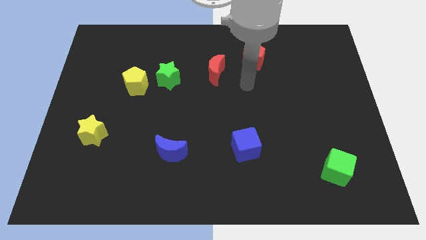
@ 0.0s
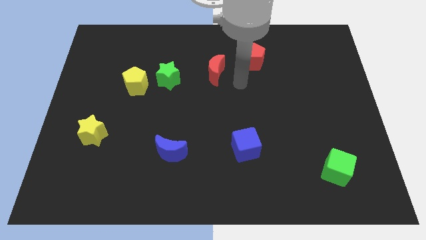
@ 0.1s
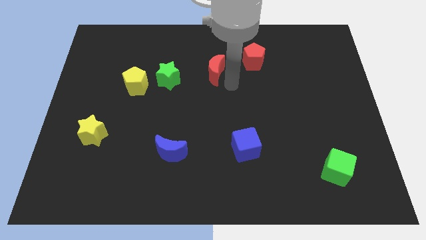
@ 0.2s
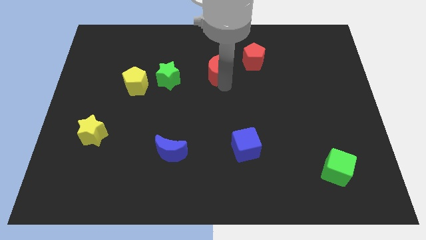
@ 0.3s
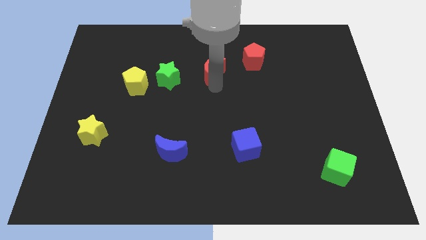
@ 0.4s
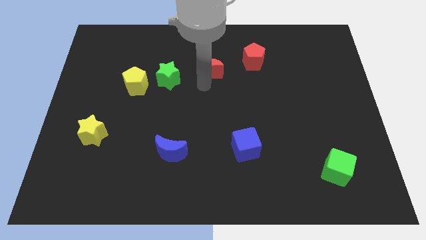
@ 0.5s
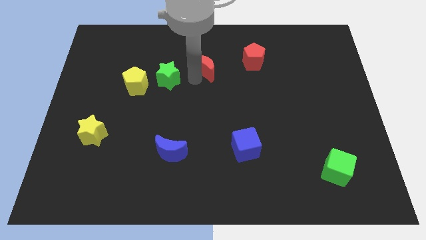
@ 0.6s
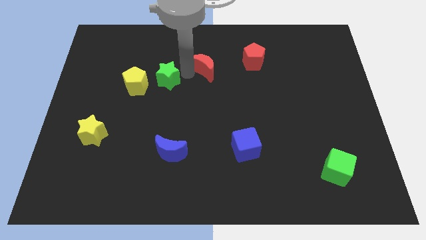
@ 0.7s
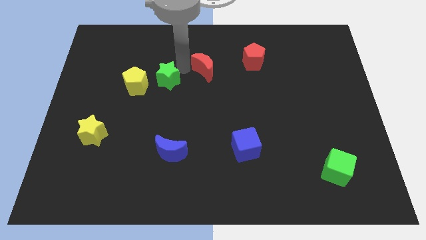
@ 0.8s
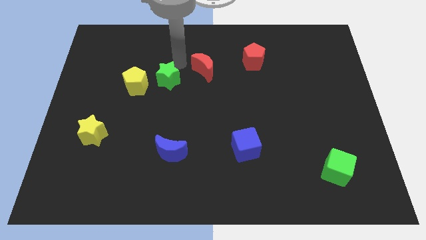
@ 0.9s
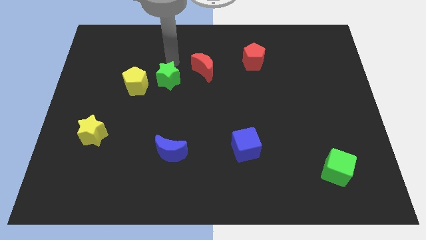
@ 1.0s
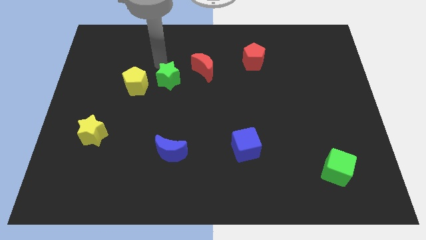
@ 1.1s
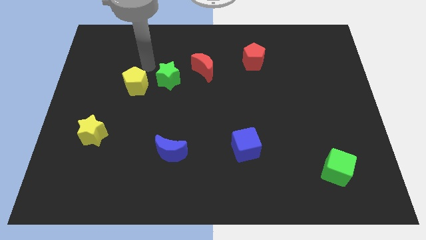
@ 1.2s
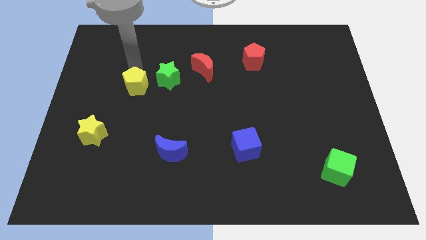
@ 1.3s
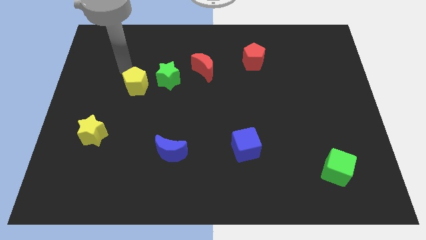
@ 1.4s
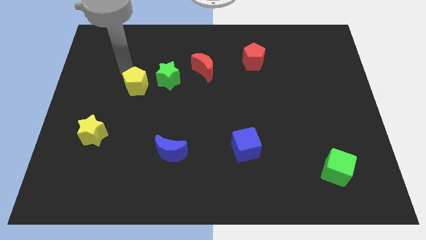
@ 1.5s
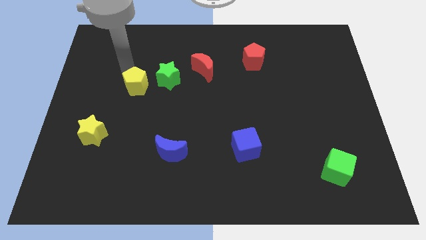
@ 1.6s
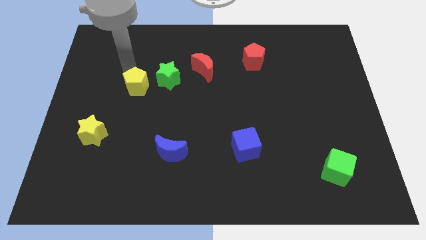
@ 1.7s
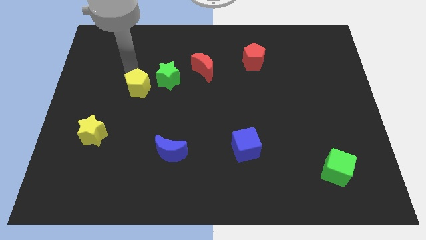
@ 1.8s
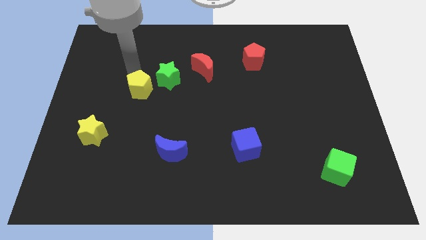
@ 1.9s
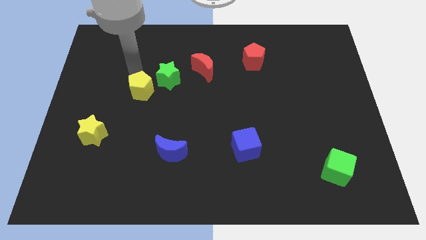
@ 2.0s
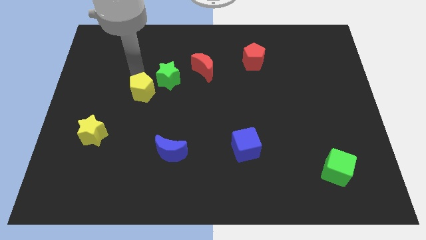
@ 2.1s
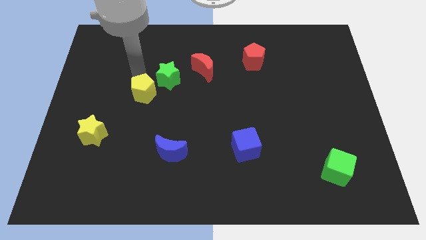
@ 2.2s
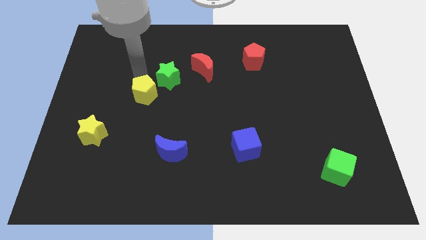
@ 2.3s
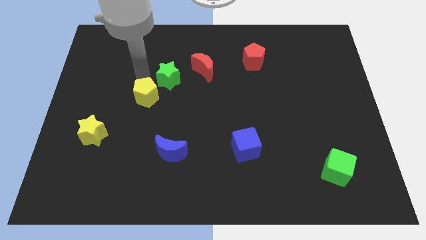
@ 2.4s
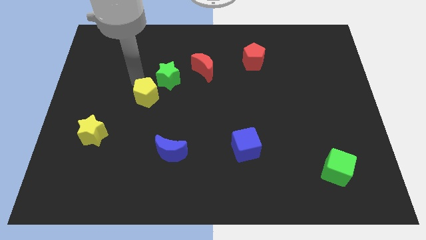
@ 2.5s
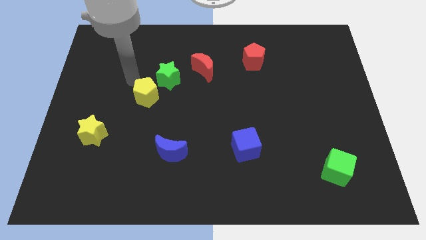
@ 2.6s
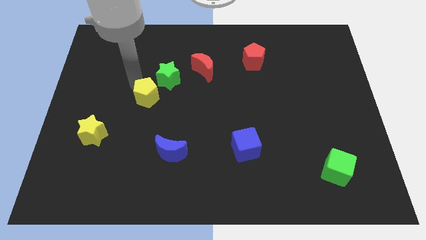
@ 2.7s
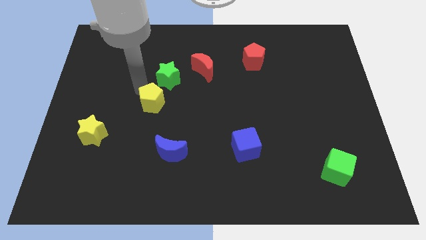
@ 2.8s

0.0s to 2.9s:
move the yellow pentagon diagonally down and to the right a bit

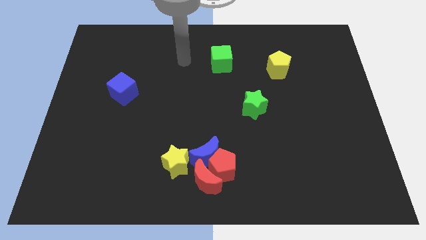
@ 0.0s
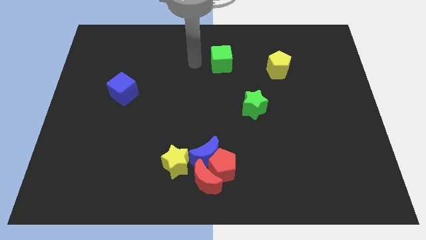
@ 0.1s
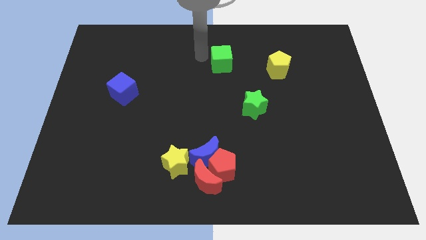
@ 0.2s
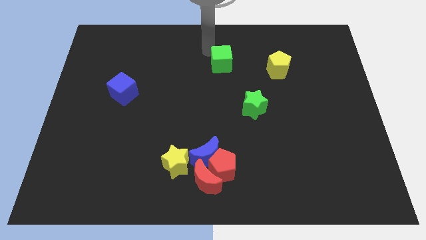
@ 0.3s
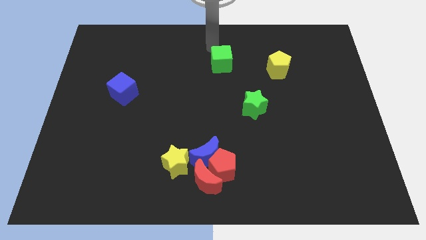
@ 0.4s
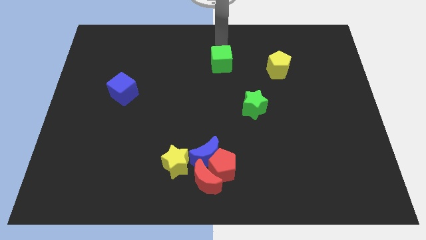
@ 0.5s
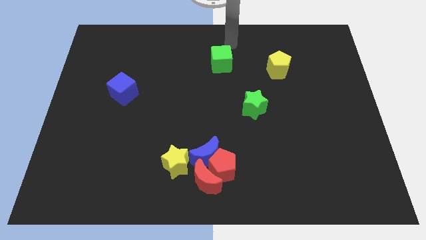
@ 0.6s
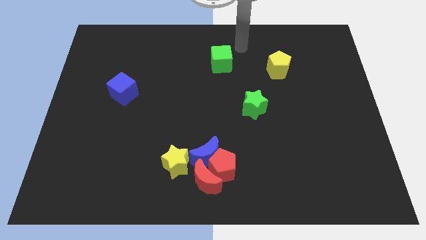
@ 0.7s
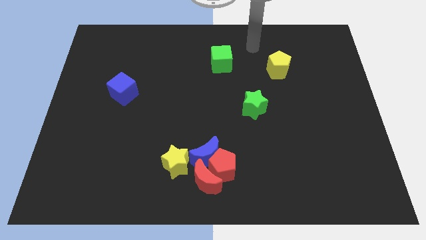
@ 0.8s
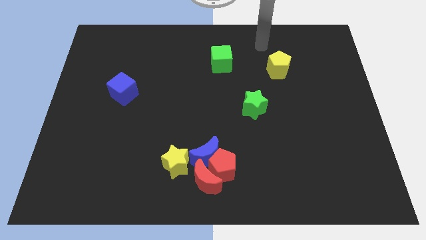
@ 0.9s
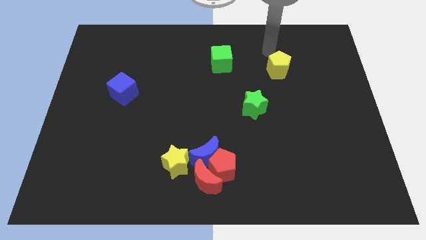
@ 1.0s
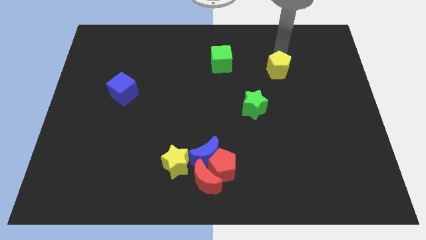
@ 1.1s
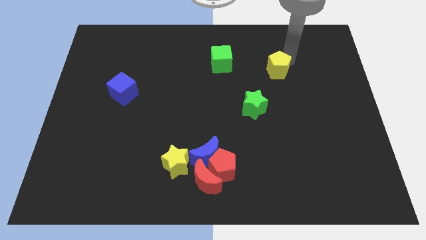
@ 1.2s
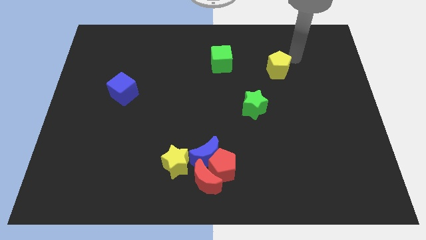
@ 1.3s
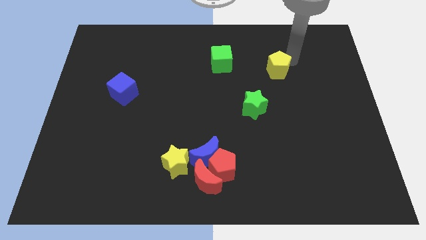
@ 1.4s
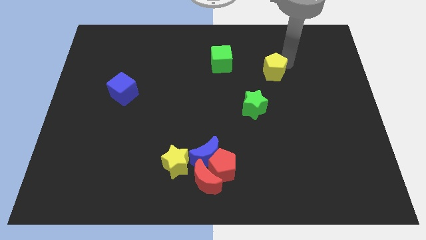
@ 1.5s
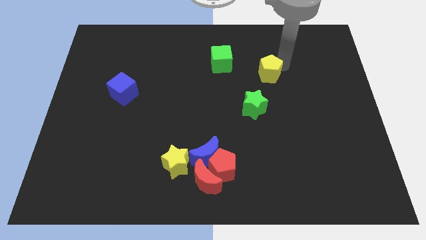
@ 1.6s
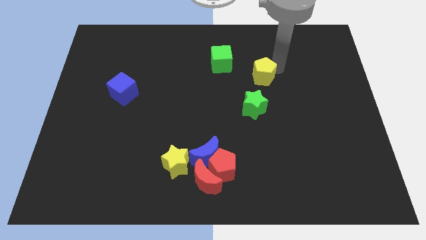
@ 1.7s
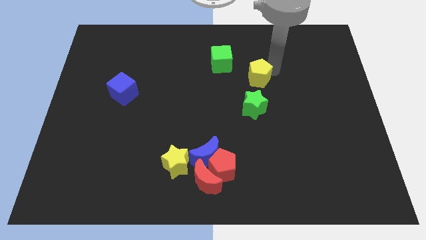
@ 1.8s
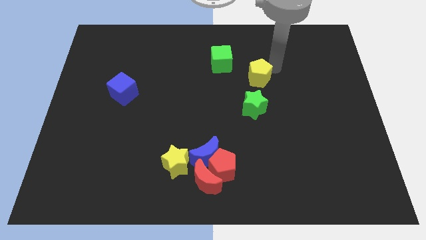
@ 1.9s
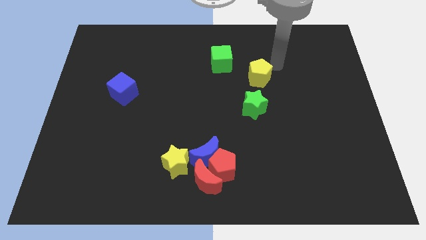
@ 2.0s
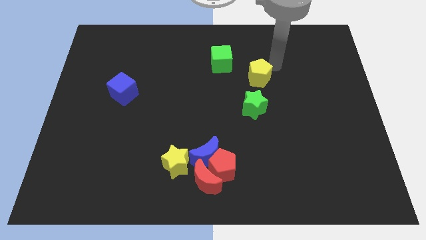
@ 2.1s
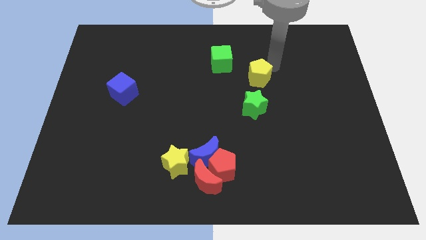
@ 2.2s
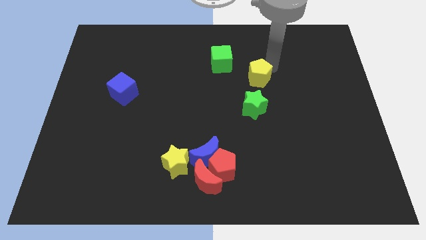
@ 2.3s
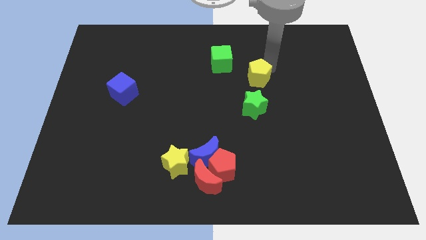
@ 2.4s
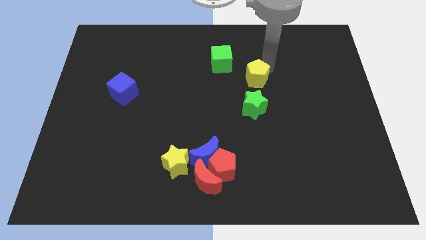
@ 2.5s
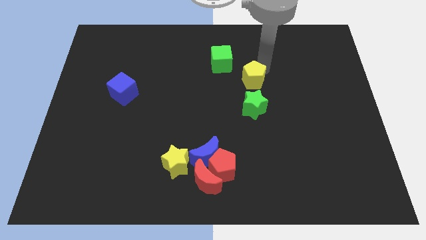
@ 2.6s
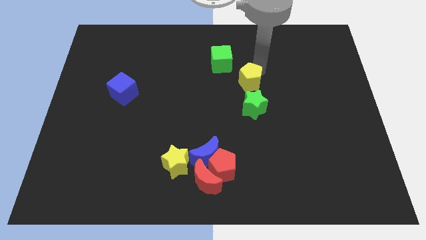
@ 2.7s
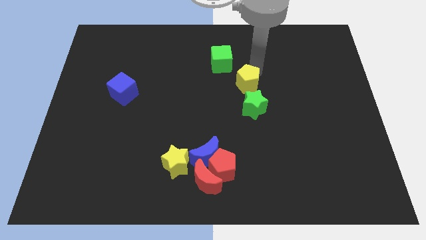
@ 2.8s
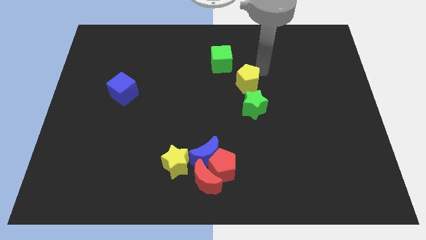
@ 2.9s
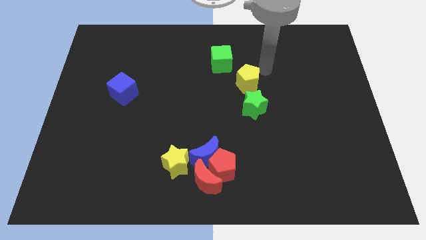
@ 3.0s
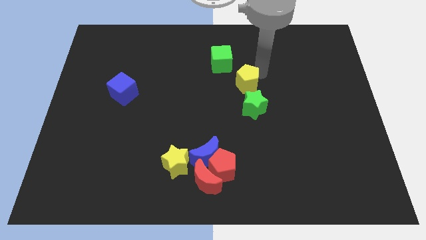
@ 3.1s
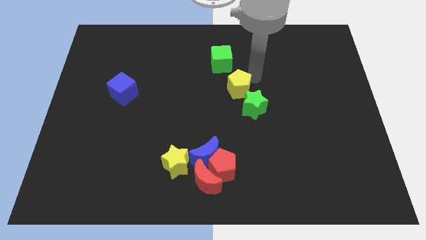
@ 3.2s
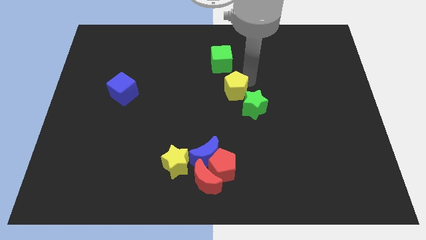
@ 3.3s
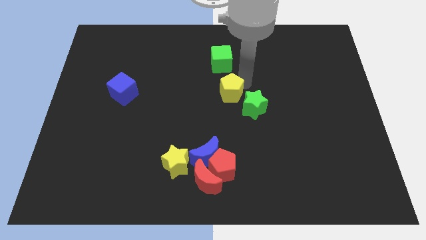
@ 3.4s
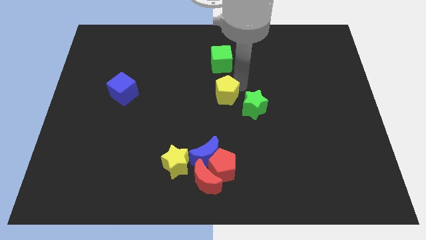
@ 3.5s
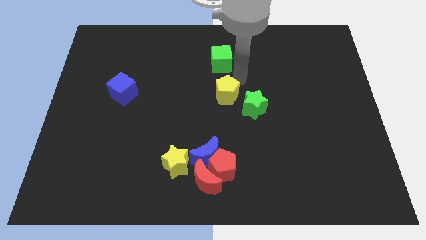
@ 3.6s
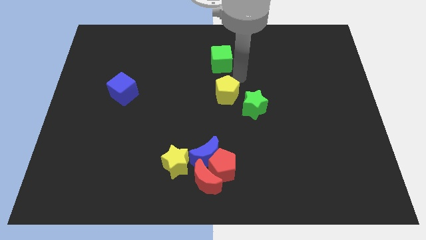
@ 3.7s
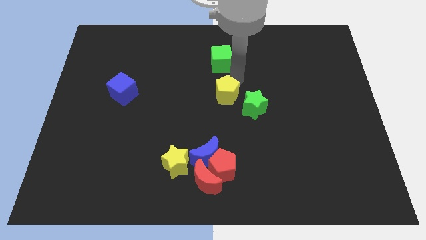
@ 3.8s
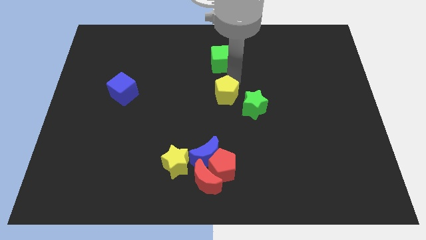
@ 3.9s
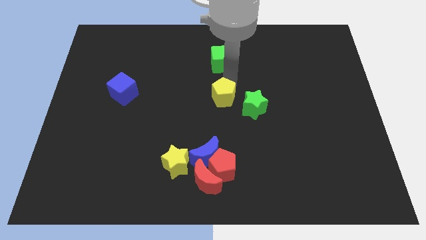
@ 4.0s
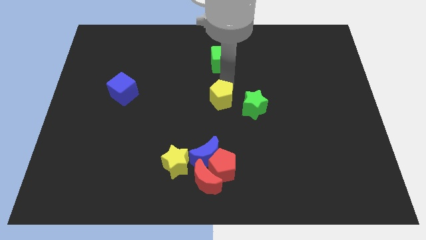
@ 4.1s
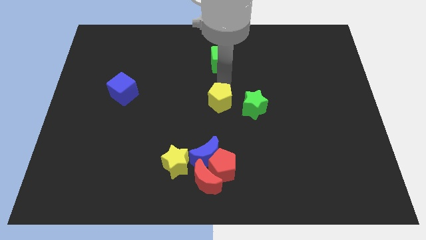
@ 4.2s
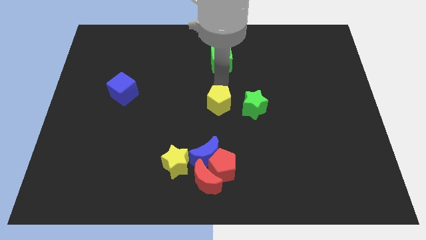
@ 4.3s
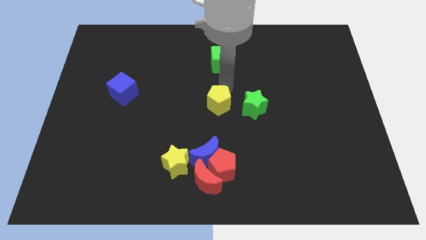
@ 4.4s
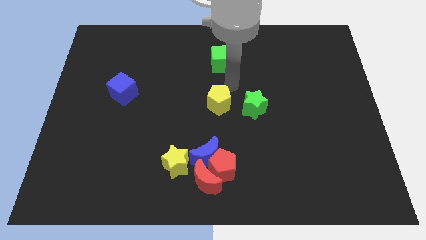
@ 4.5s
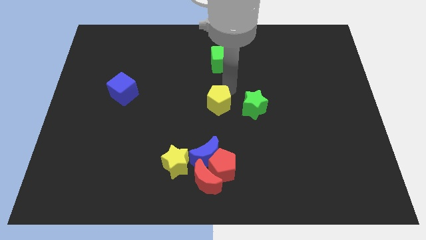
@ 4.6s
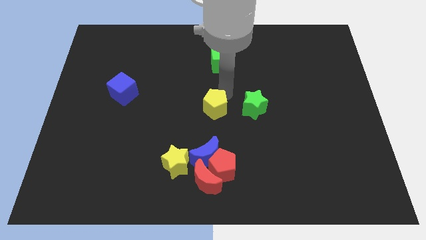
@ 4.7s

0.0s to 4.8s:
move the yellow pentagon downwards and then to the left

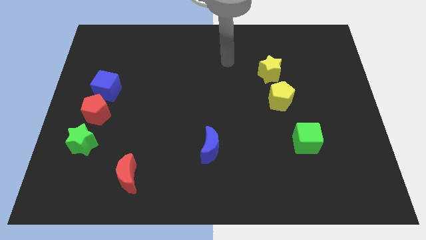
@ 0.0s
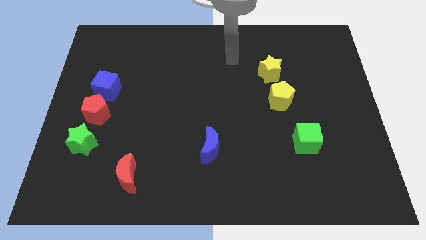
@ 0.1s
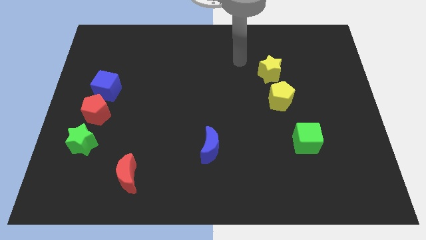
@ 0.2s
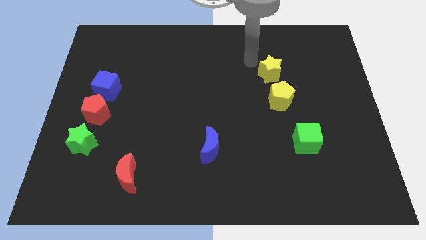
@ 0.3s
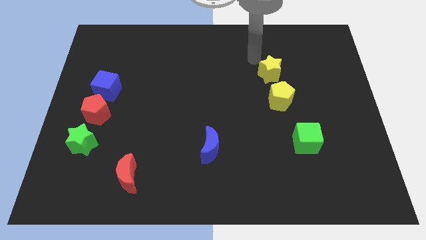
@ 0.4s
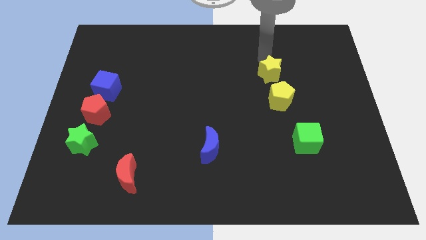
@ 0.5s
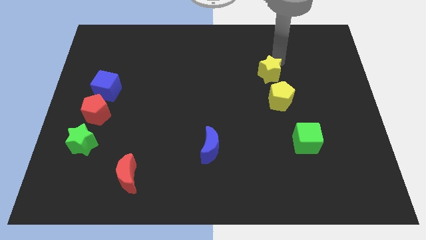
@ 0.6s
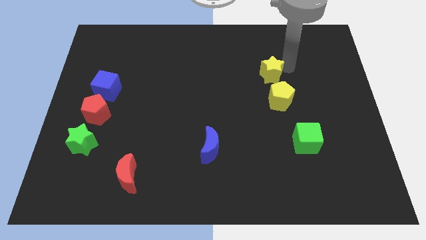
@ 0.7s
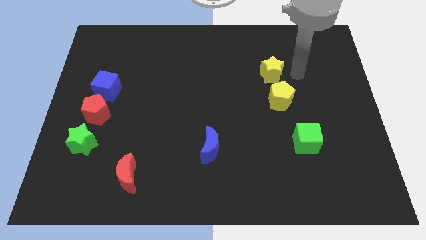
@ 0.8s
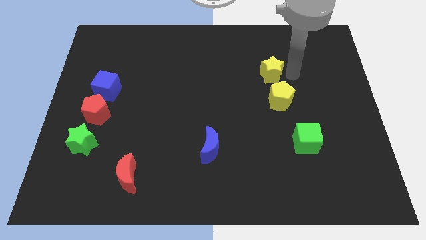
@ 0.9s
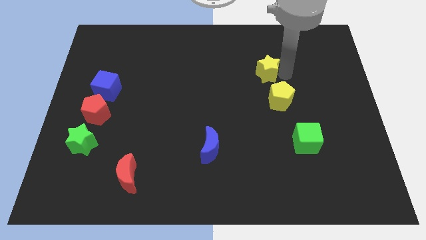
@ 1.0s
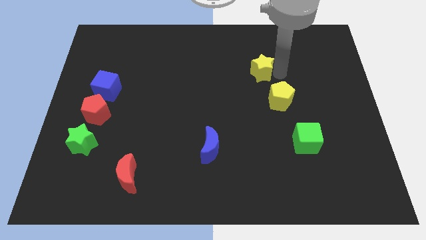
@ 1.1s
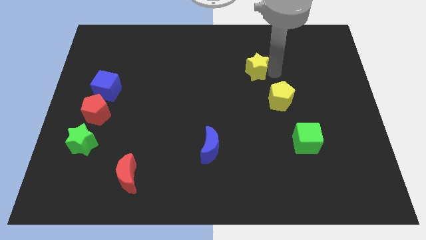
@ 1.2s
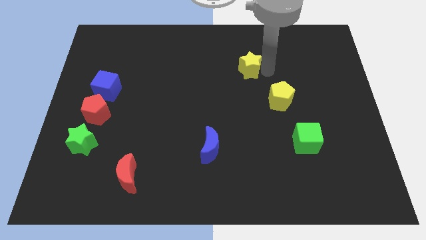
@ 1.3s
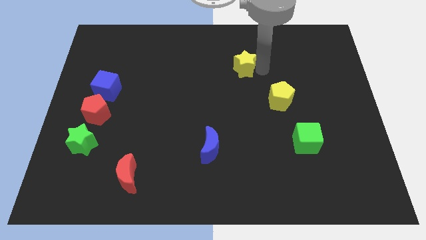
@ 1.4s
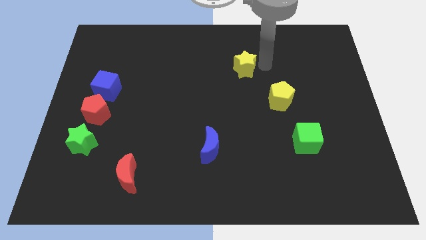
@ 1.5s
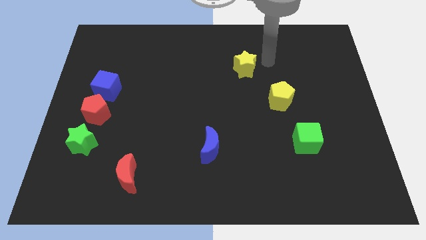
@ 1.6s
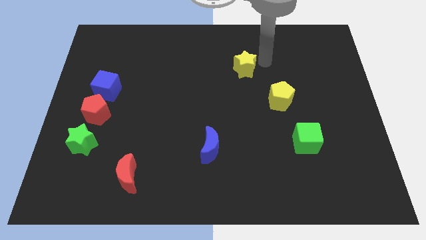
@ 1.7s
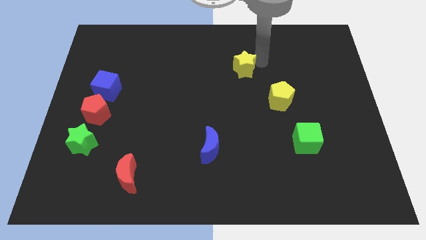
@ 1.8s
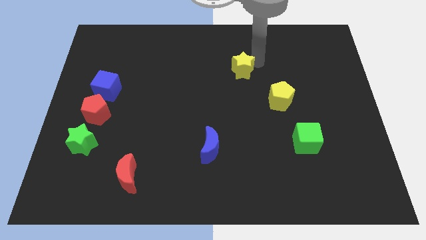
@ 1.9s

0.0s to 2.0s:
slide the yellow star to the left a little bit
